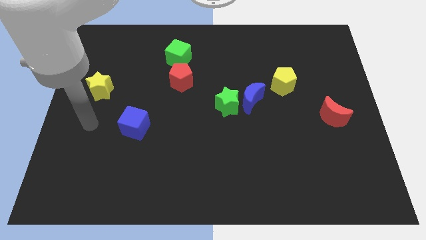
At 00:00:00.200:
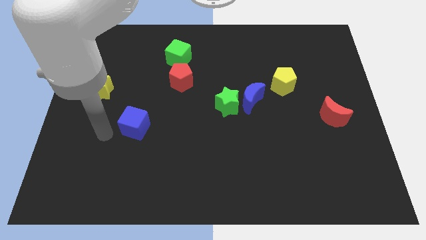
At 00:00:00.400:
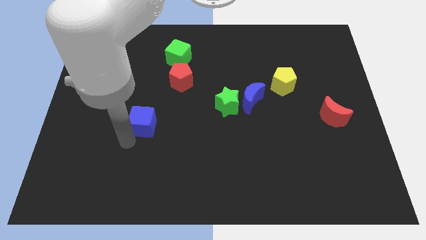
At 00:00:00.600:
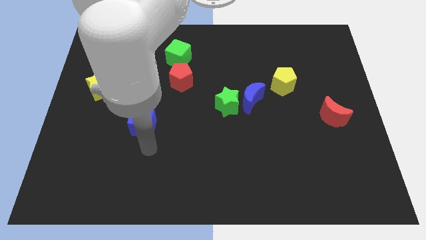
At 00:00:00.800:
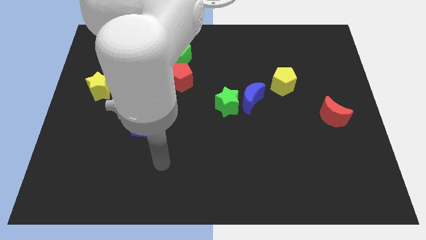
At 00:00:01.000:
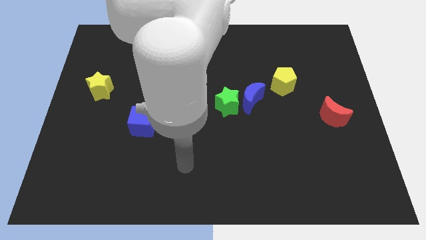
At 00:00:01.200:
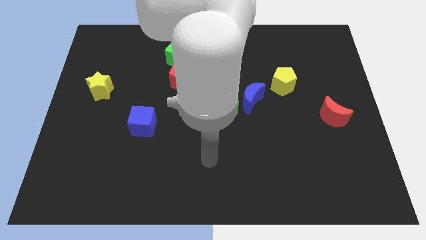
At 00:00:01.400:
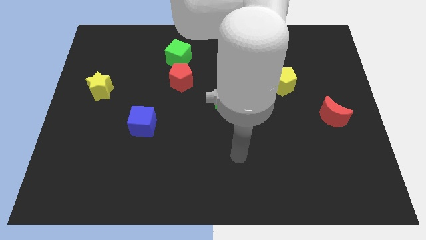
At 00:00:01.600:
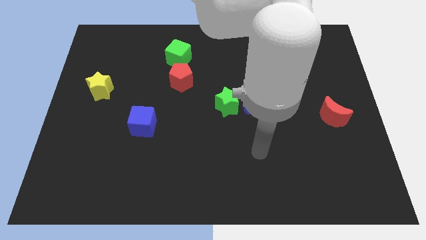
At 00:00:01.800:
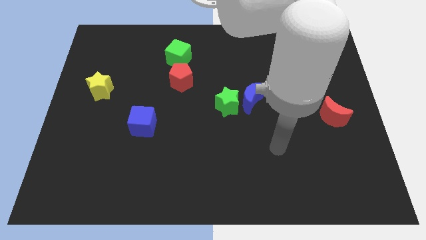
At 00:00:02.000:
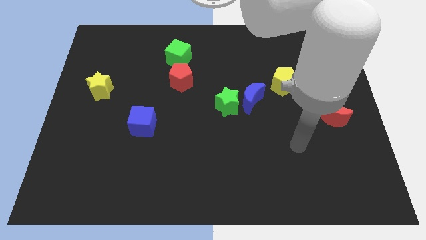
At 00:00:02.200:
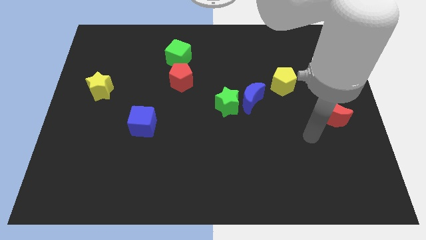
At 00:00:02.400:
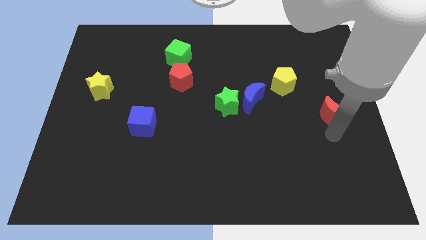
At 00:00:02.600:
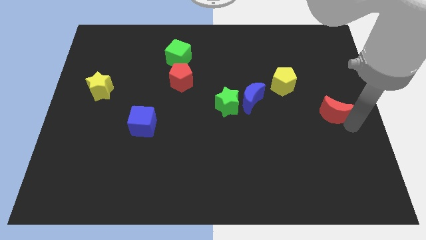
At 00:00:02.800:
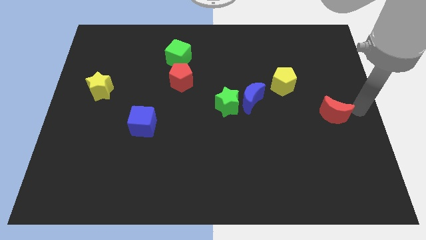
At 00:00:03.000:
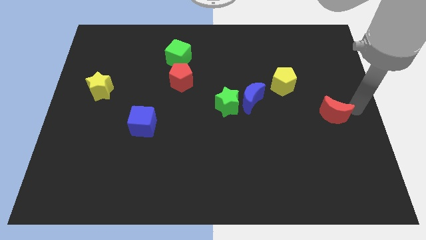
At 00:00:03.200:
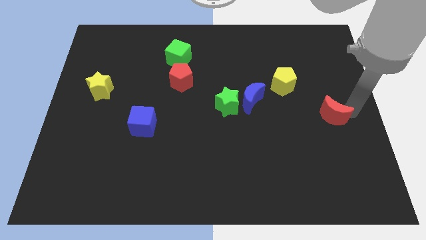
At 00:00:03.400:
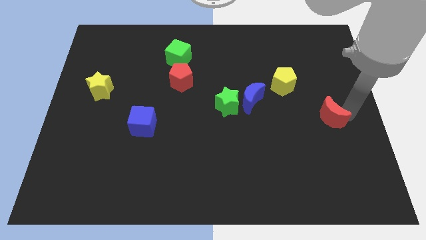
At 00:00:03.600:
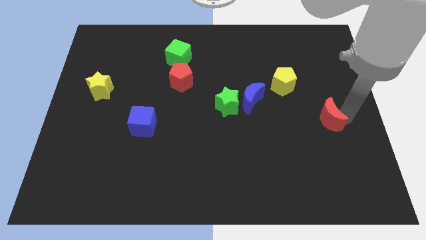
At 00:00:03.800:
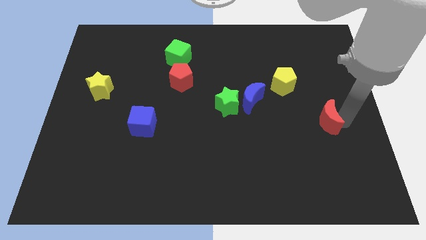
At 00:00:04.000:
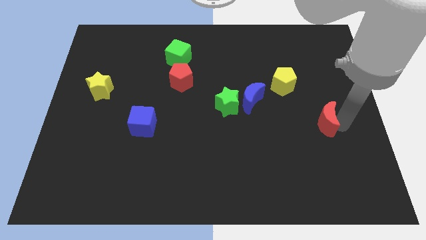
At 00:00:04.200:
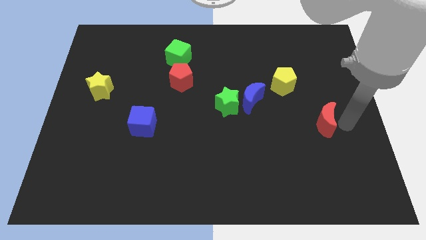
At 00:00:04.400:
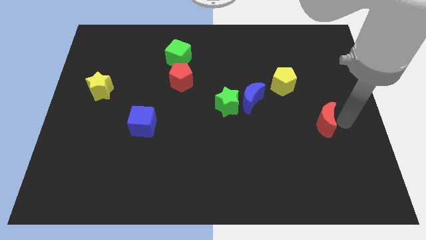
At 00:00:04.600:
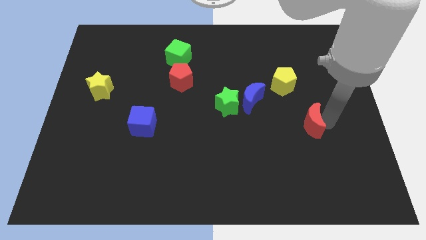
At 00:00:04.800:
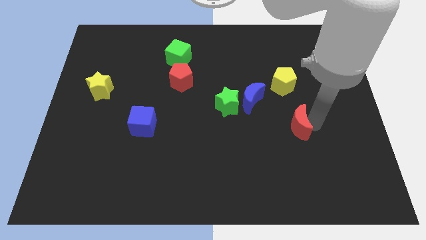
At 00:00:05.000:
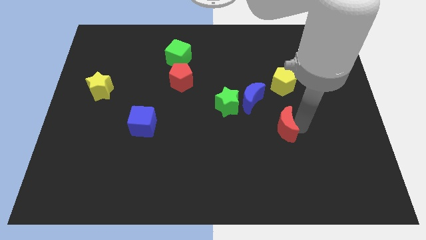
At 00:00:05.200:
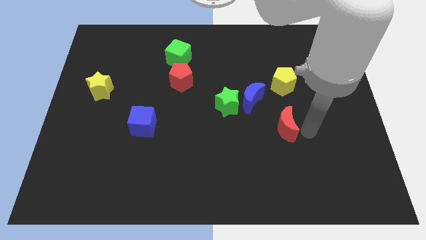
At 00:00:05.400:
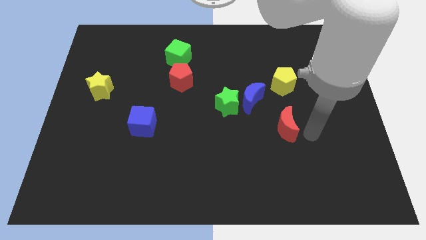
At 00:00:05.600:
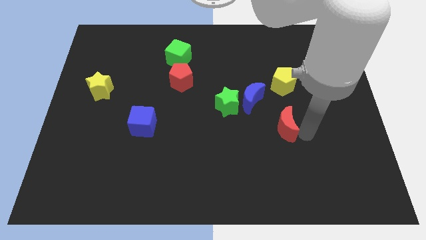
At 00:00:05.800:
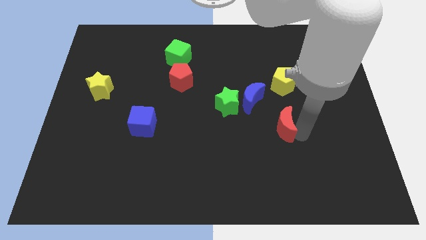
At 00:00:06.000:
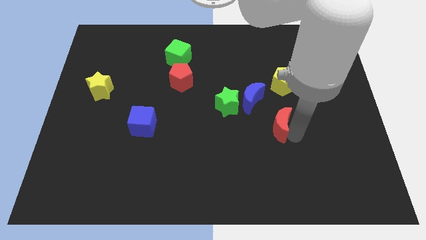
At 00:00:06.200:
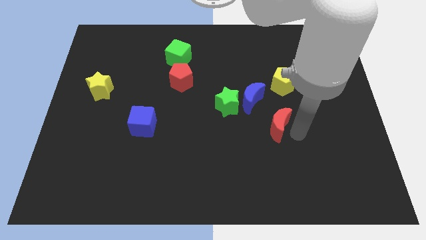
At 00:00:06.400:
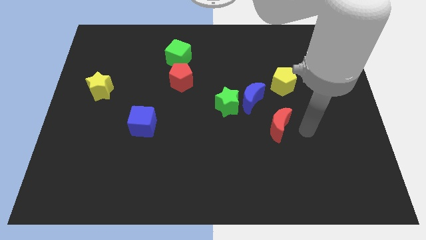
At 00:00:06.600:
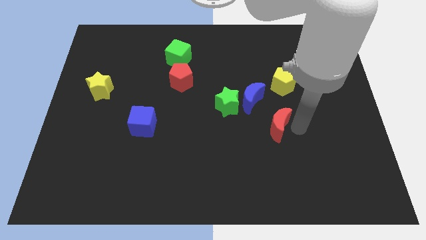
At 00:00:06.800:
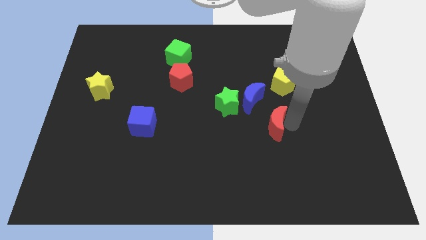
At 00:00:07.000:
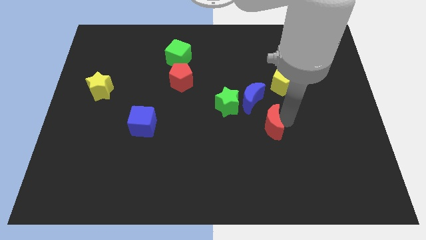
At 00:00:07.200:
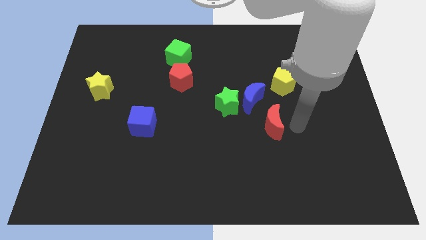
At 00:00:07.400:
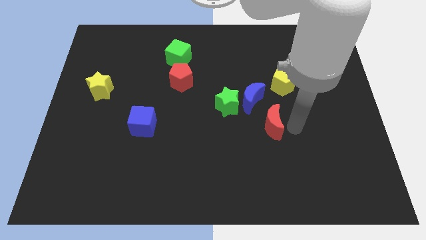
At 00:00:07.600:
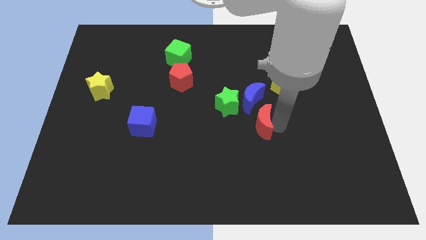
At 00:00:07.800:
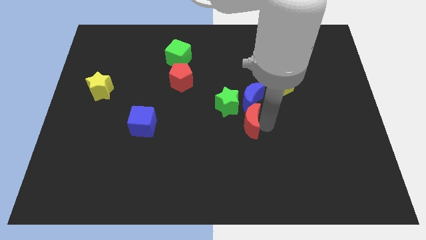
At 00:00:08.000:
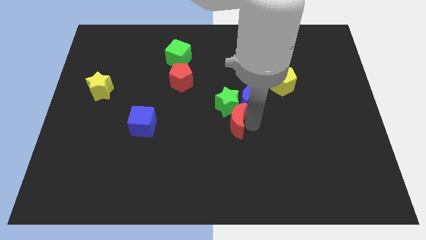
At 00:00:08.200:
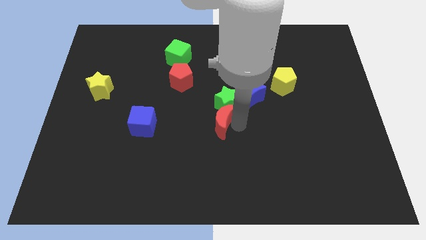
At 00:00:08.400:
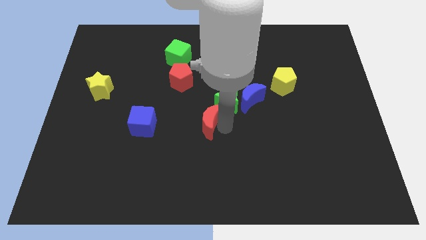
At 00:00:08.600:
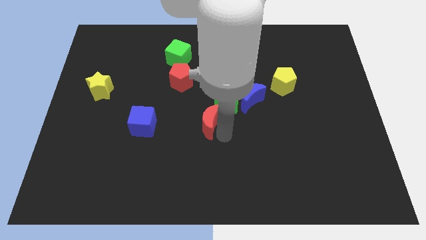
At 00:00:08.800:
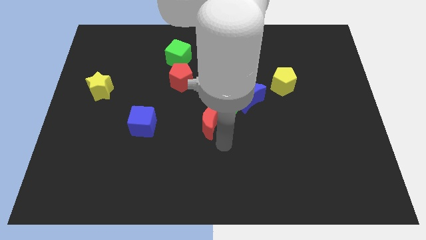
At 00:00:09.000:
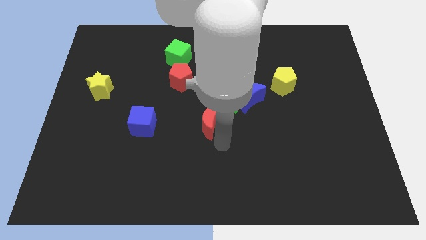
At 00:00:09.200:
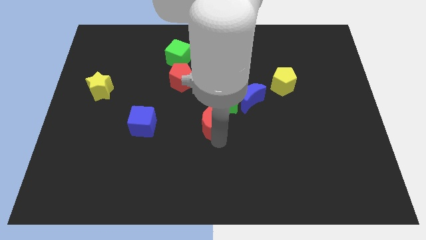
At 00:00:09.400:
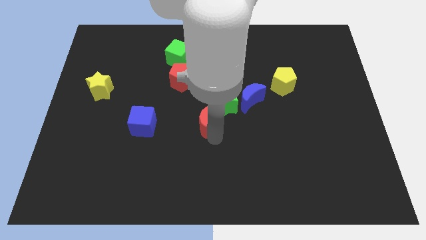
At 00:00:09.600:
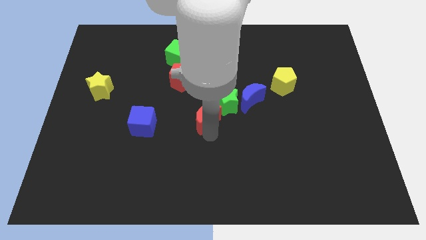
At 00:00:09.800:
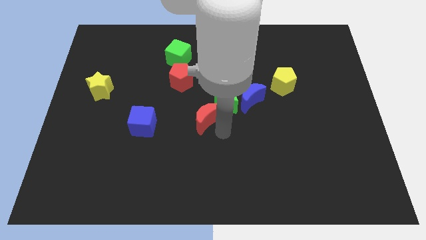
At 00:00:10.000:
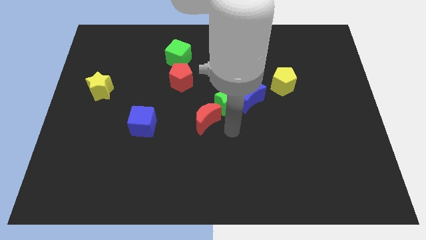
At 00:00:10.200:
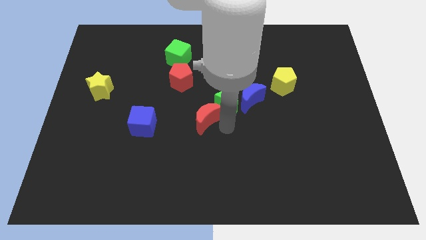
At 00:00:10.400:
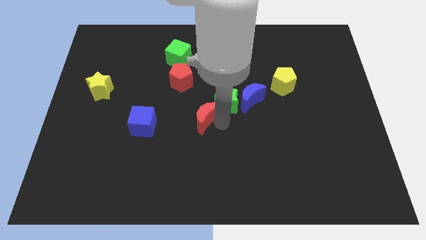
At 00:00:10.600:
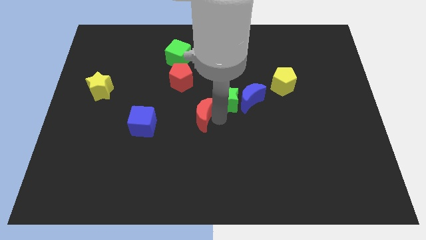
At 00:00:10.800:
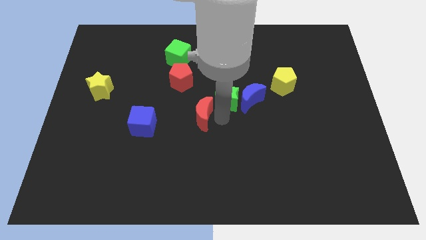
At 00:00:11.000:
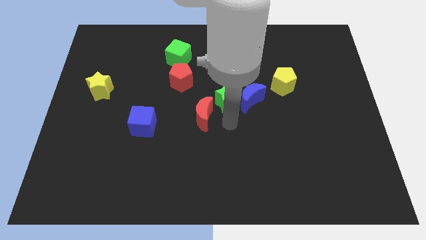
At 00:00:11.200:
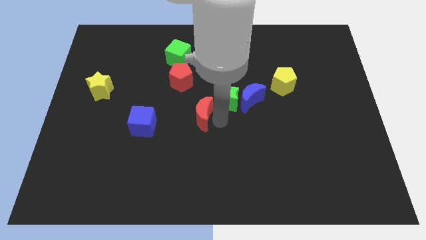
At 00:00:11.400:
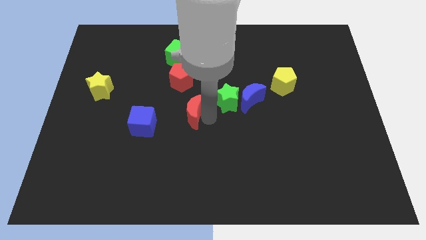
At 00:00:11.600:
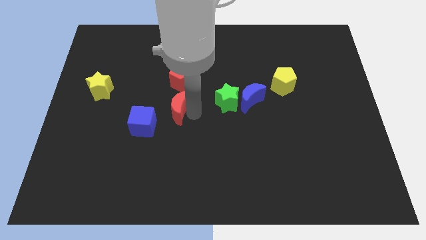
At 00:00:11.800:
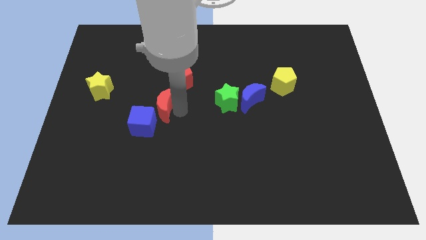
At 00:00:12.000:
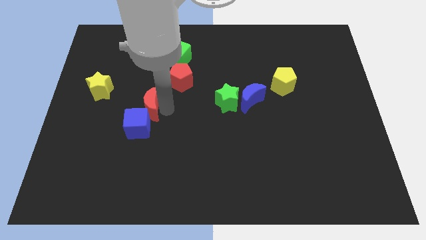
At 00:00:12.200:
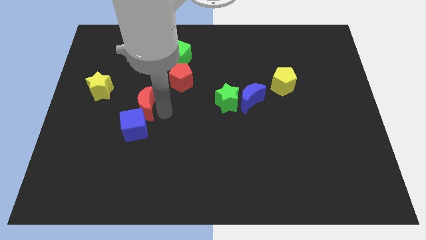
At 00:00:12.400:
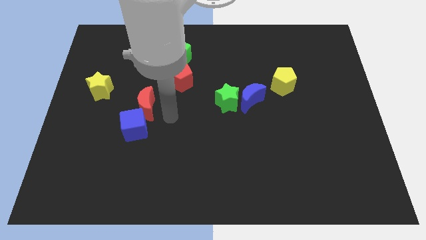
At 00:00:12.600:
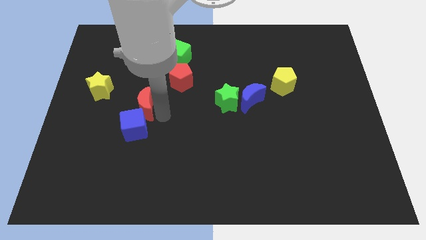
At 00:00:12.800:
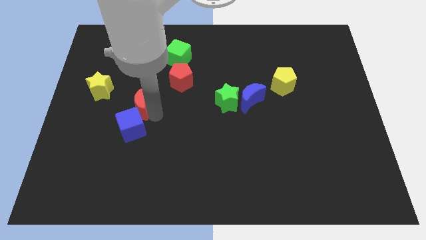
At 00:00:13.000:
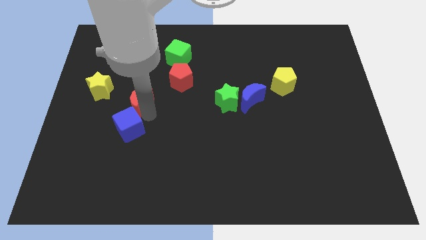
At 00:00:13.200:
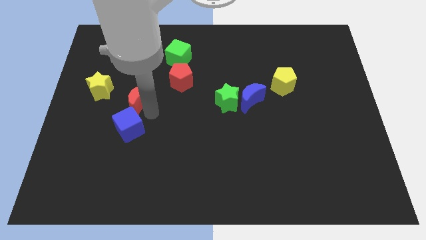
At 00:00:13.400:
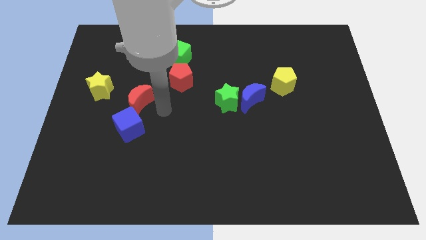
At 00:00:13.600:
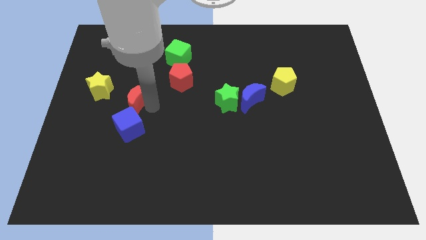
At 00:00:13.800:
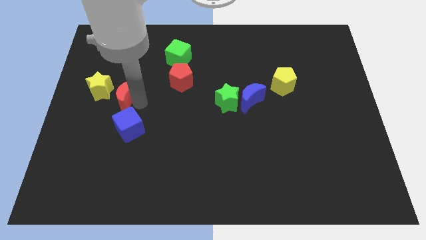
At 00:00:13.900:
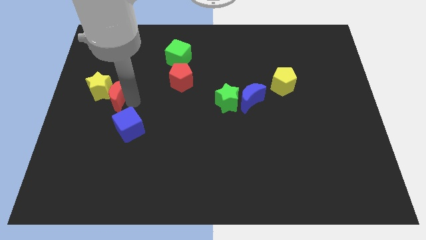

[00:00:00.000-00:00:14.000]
move the red moon close to the yellow star
